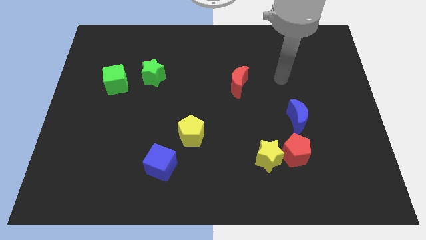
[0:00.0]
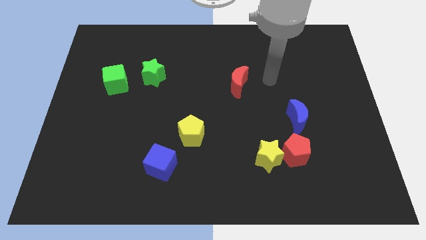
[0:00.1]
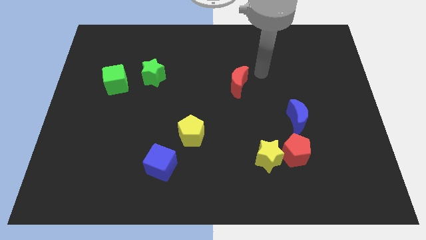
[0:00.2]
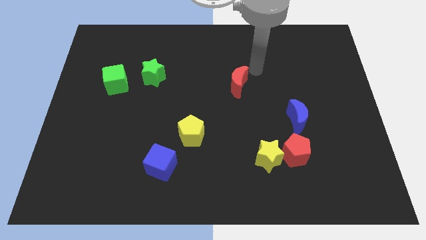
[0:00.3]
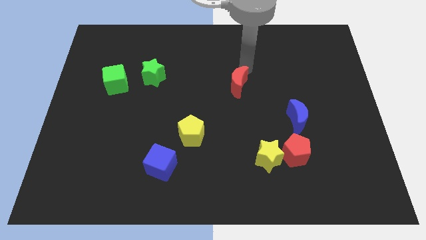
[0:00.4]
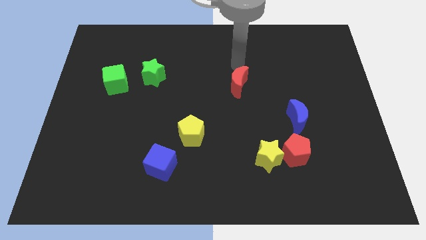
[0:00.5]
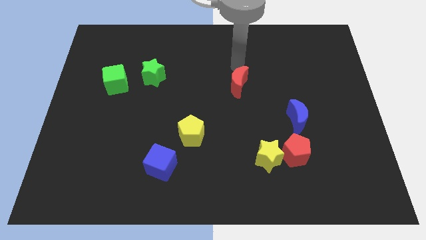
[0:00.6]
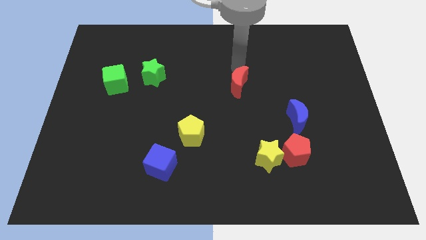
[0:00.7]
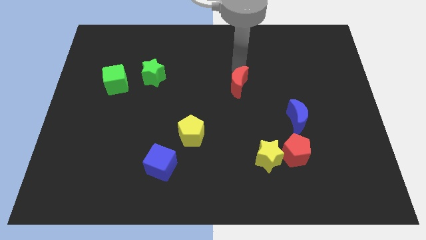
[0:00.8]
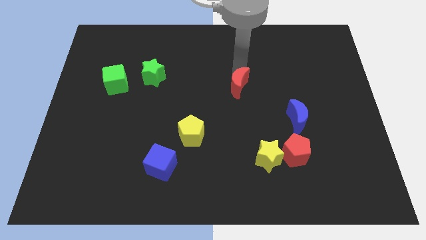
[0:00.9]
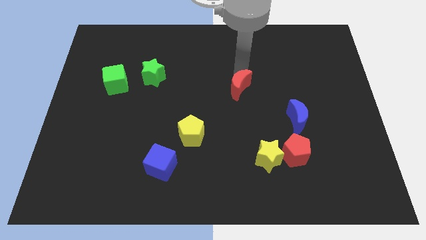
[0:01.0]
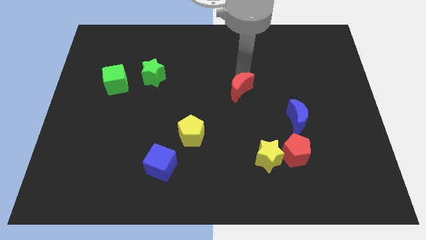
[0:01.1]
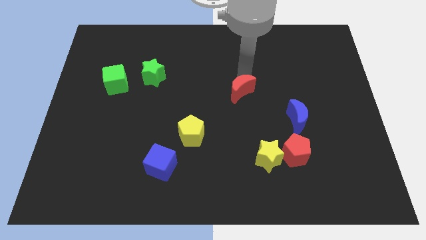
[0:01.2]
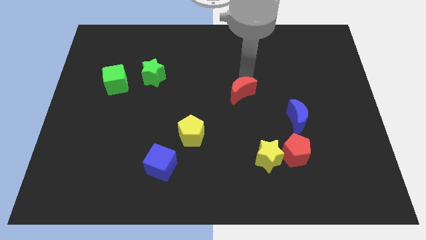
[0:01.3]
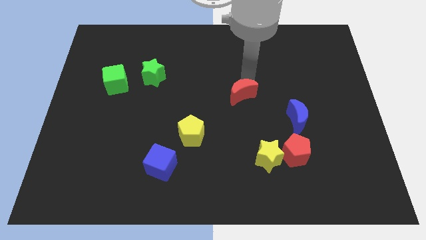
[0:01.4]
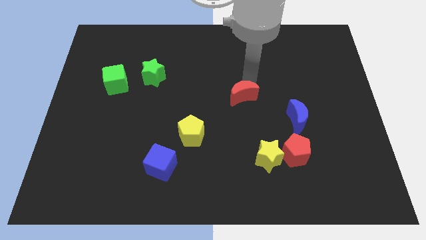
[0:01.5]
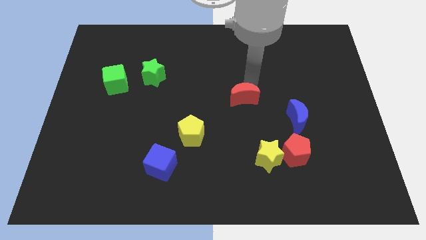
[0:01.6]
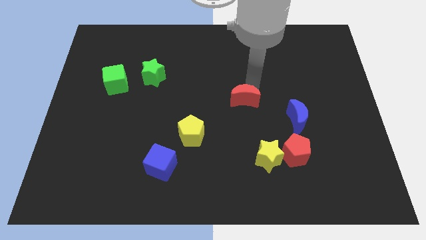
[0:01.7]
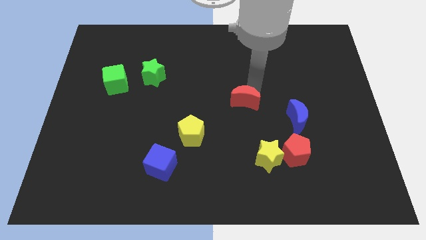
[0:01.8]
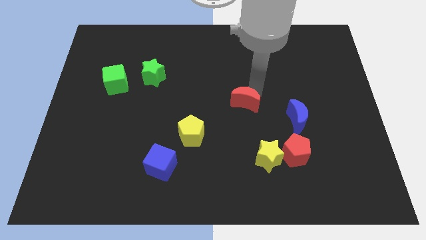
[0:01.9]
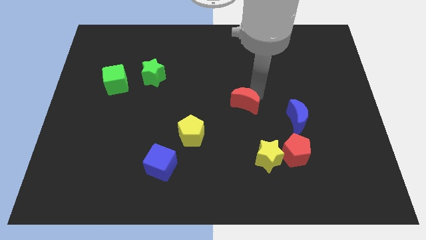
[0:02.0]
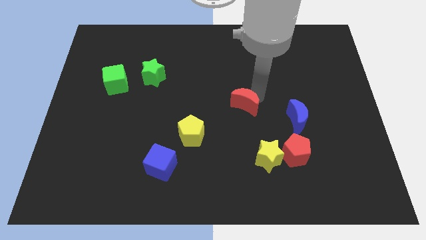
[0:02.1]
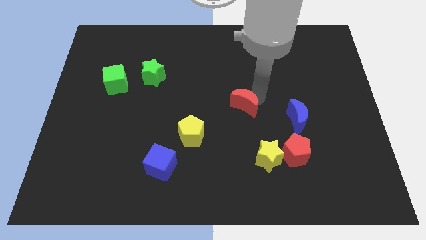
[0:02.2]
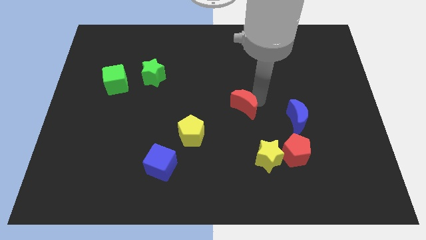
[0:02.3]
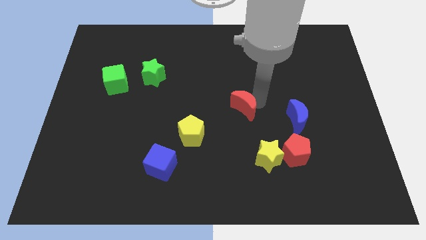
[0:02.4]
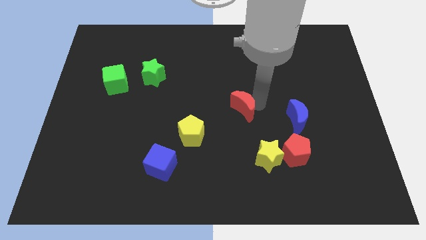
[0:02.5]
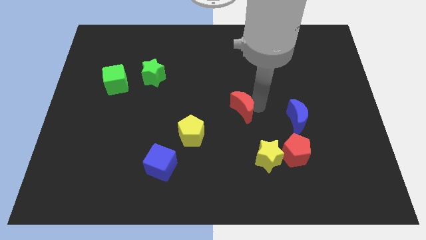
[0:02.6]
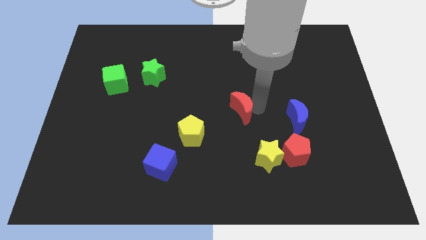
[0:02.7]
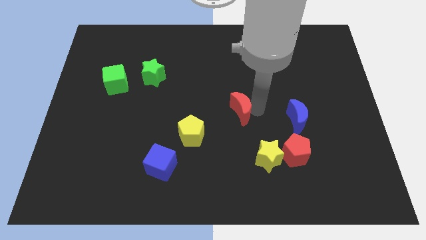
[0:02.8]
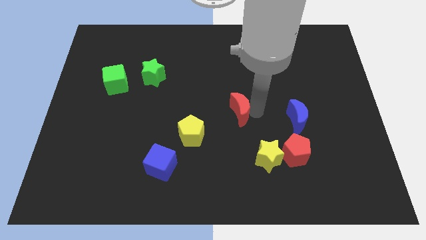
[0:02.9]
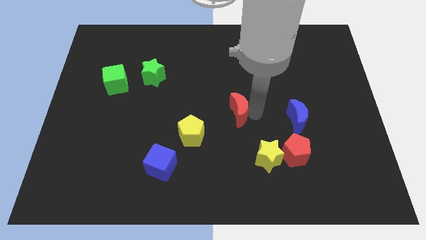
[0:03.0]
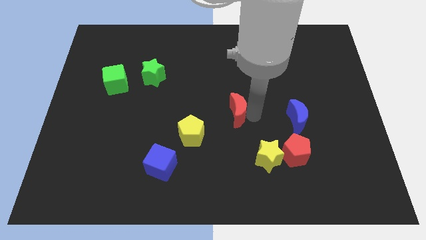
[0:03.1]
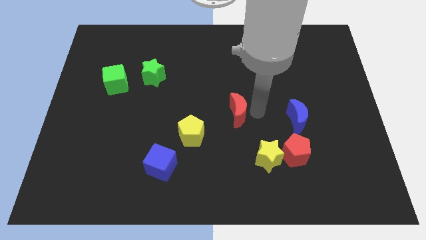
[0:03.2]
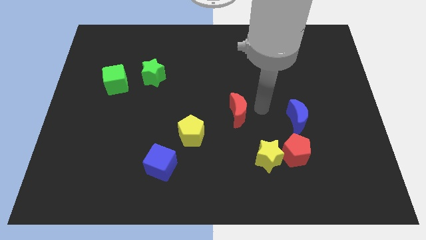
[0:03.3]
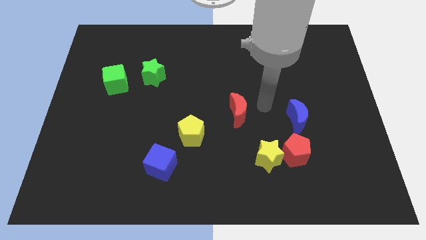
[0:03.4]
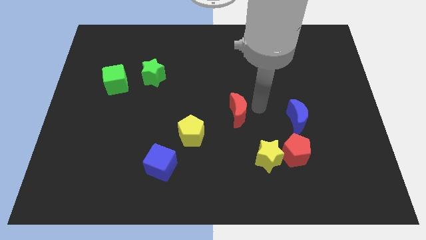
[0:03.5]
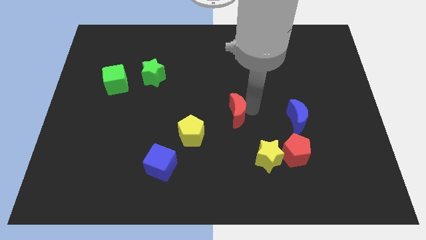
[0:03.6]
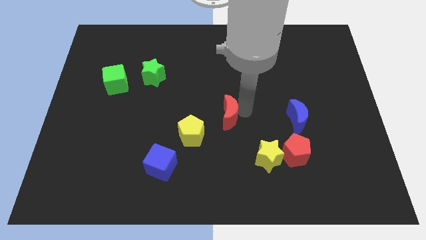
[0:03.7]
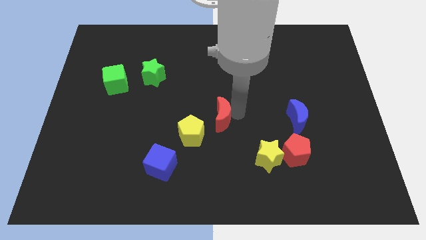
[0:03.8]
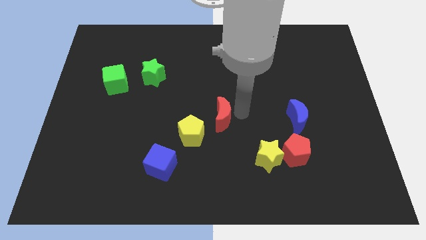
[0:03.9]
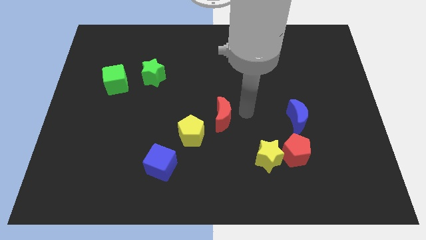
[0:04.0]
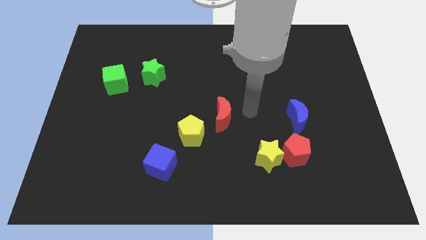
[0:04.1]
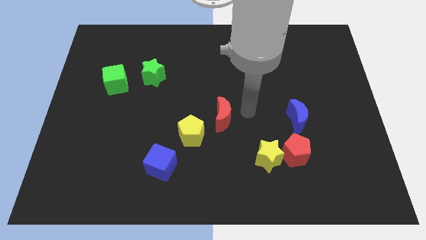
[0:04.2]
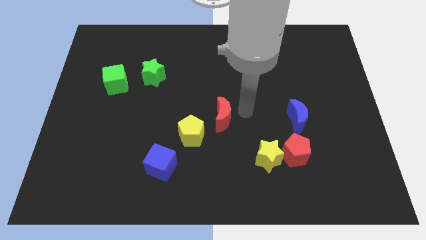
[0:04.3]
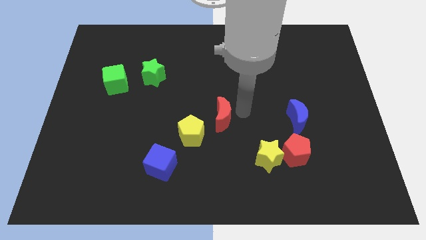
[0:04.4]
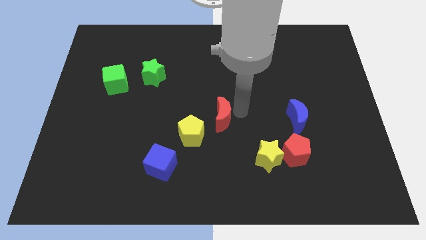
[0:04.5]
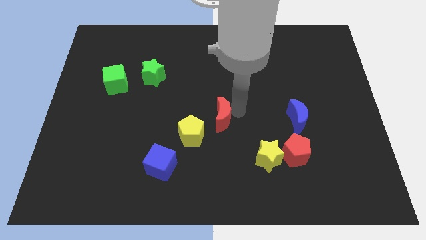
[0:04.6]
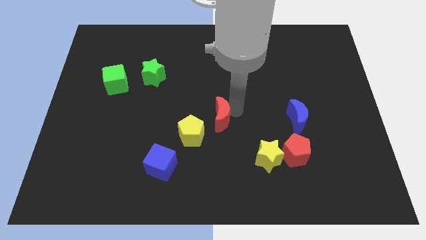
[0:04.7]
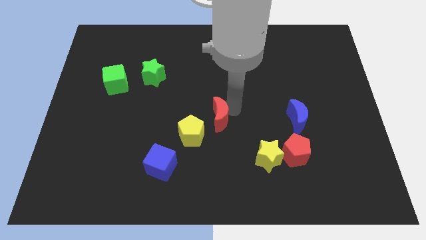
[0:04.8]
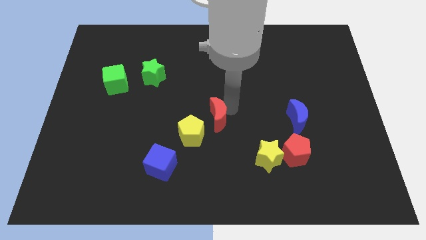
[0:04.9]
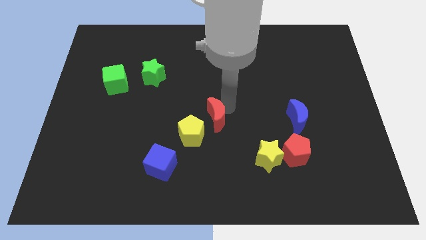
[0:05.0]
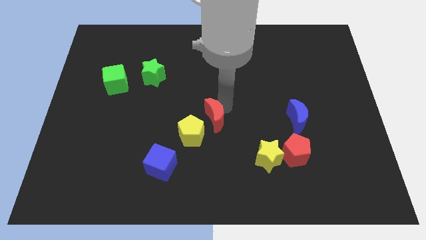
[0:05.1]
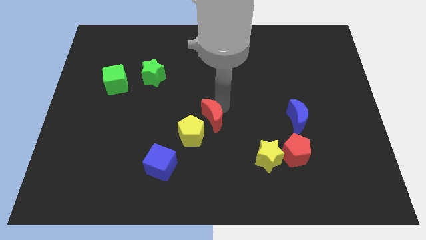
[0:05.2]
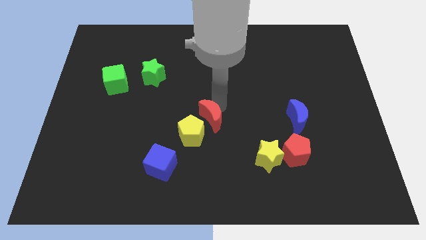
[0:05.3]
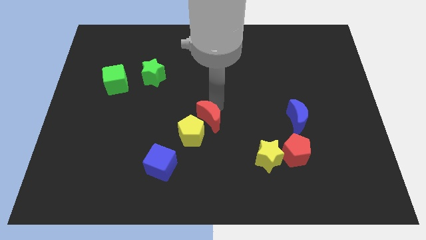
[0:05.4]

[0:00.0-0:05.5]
move the red moon to the yellow pentagon
